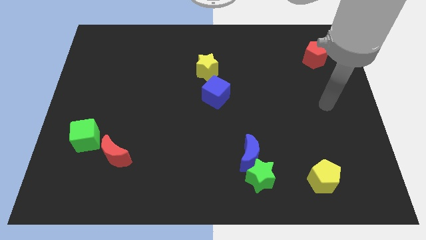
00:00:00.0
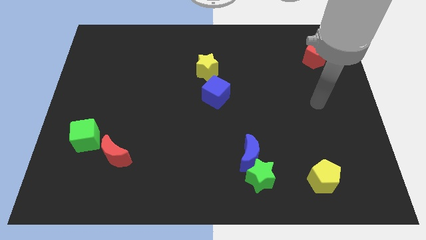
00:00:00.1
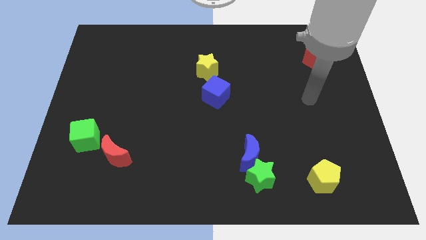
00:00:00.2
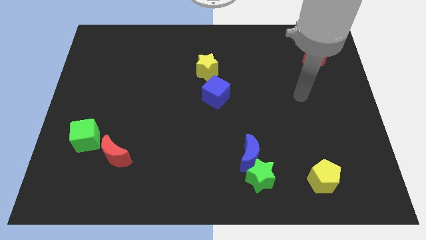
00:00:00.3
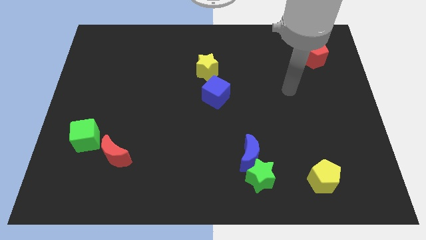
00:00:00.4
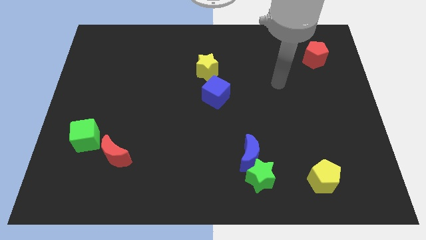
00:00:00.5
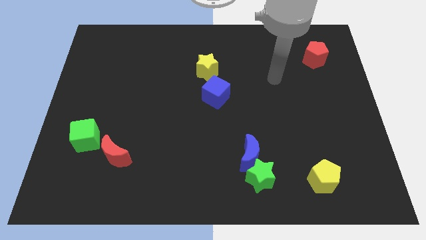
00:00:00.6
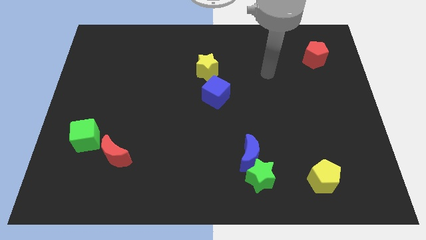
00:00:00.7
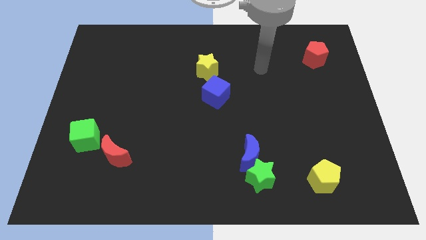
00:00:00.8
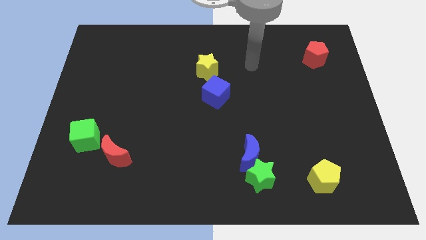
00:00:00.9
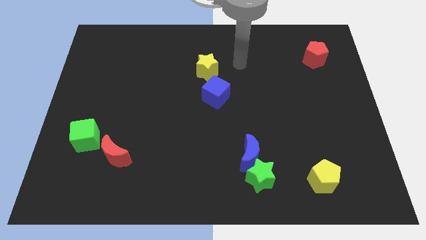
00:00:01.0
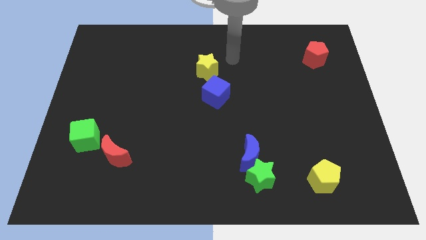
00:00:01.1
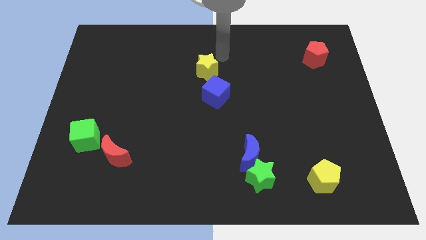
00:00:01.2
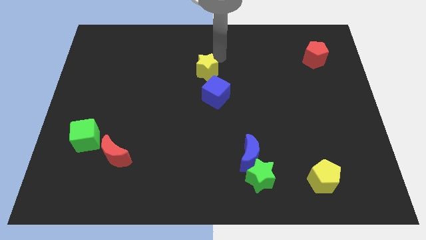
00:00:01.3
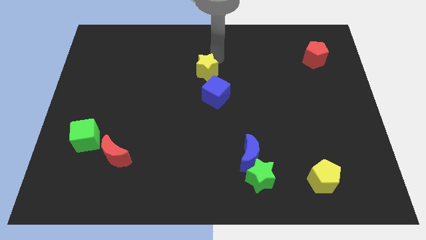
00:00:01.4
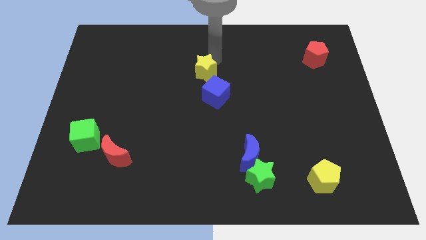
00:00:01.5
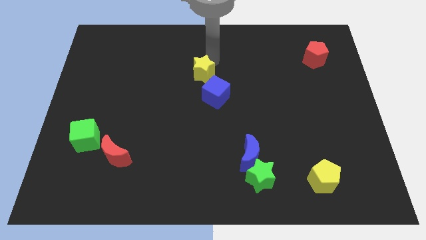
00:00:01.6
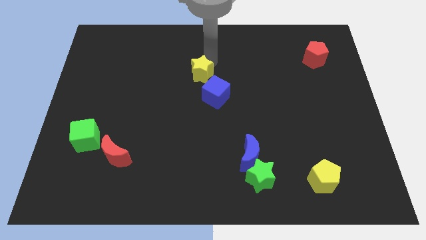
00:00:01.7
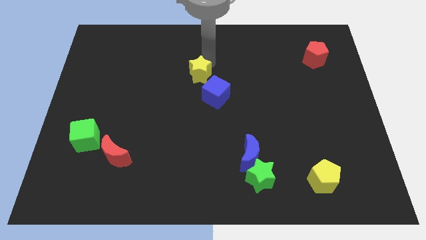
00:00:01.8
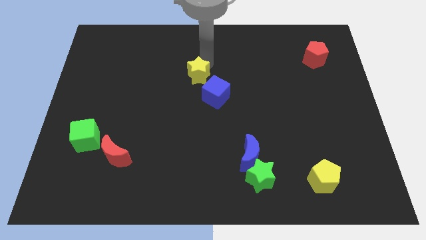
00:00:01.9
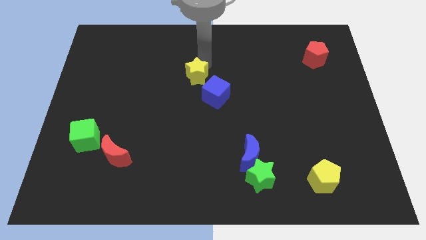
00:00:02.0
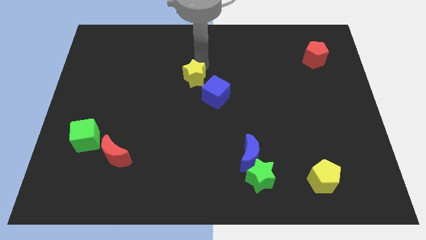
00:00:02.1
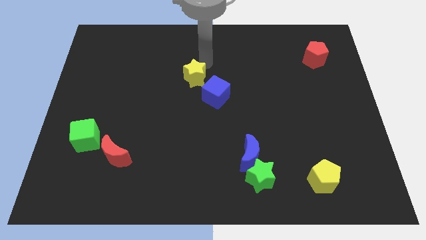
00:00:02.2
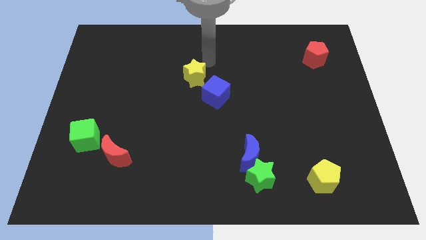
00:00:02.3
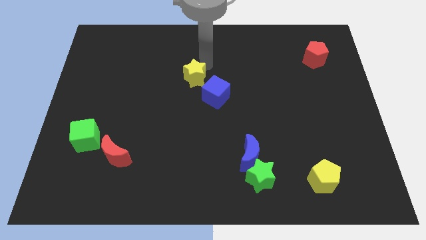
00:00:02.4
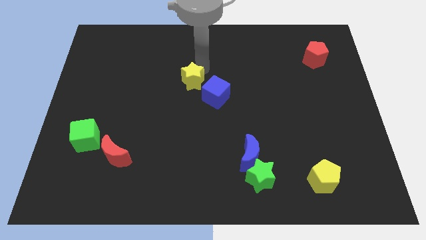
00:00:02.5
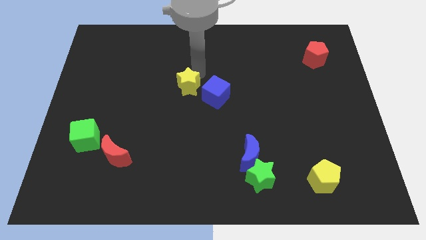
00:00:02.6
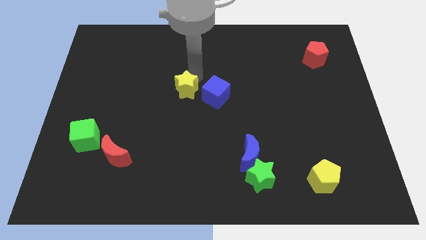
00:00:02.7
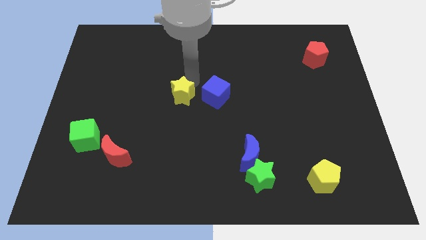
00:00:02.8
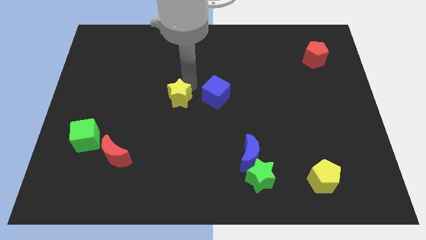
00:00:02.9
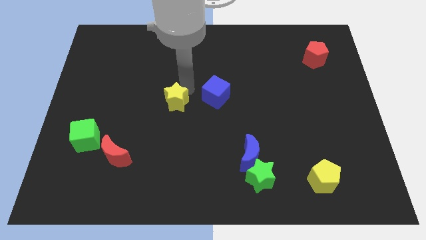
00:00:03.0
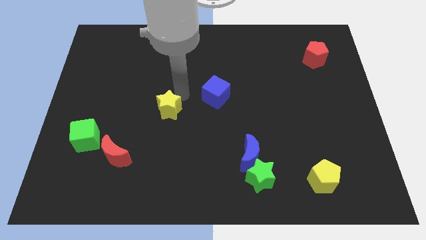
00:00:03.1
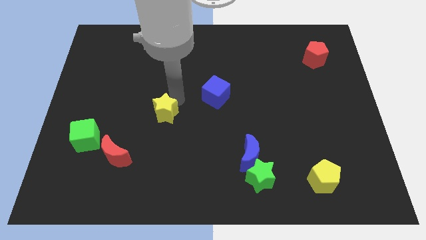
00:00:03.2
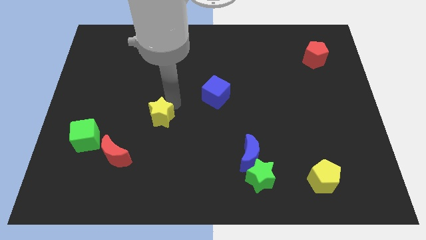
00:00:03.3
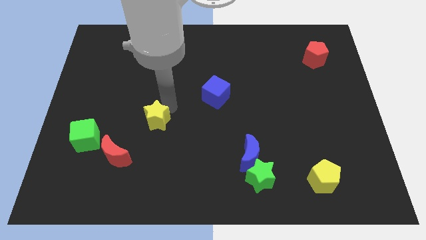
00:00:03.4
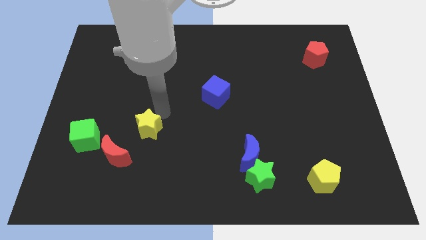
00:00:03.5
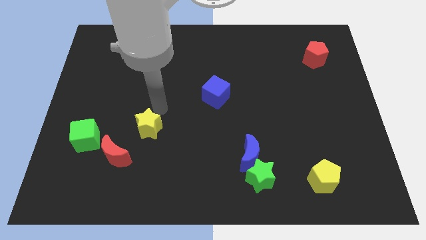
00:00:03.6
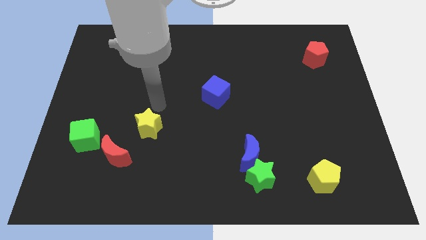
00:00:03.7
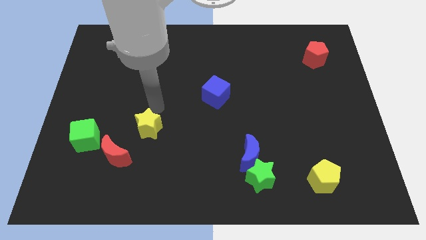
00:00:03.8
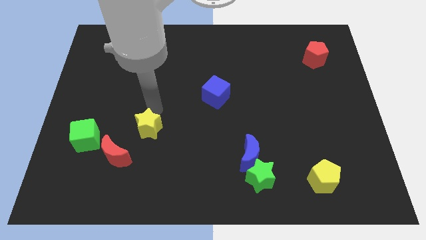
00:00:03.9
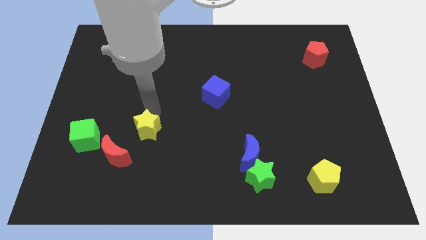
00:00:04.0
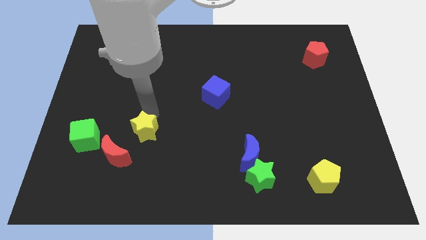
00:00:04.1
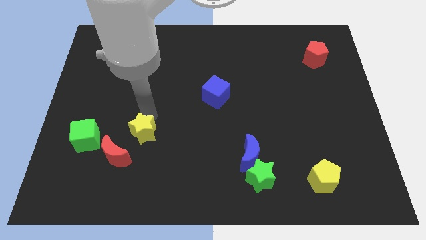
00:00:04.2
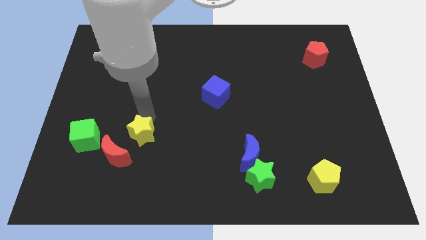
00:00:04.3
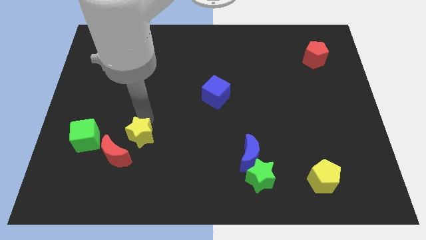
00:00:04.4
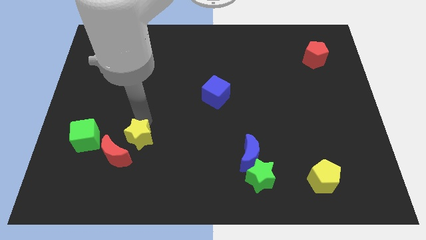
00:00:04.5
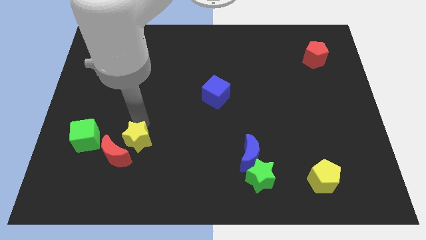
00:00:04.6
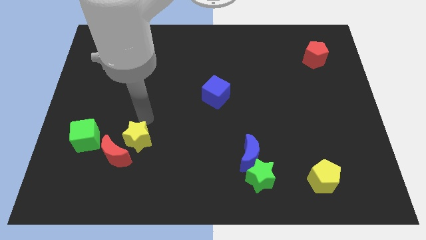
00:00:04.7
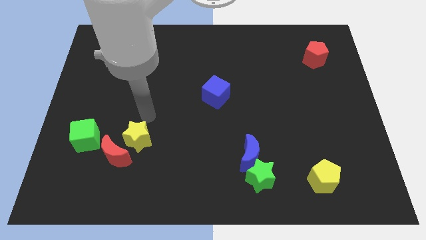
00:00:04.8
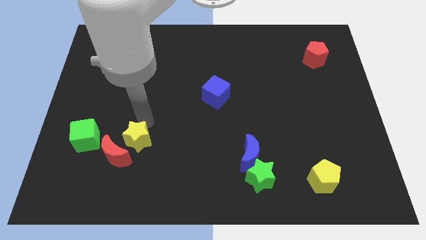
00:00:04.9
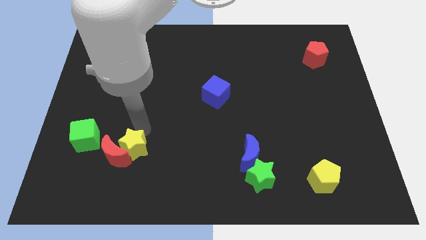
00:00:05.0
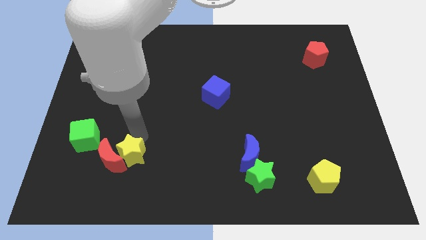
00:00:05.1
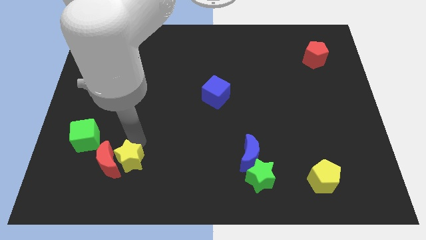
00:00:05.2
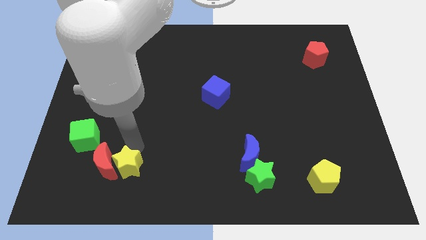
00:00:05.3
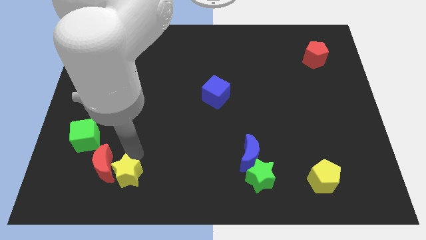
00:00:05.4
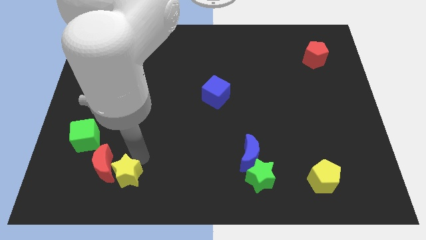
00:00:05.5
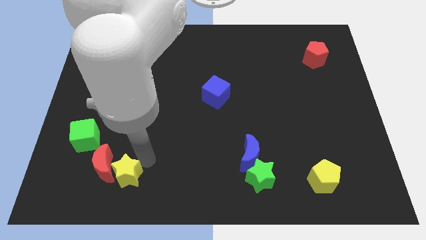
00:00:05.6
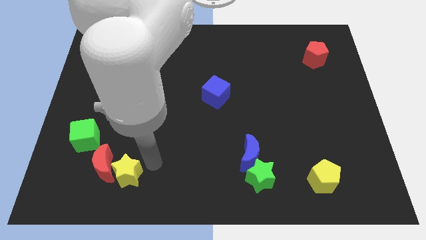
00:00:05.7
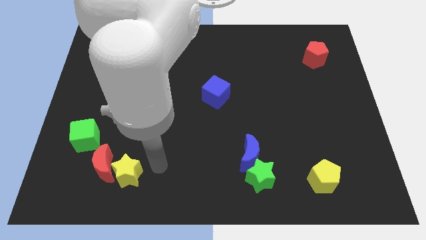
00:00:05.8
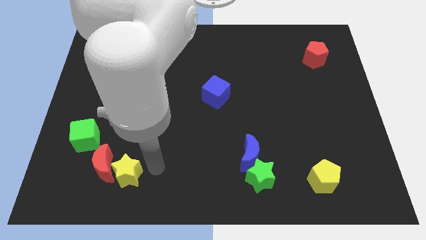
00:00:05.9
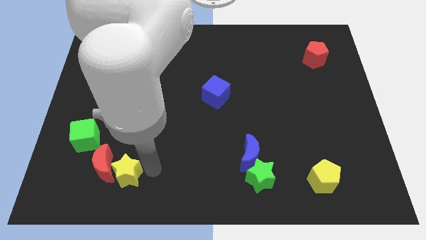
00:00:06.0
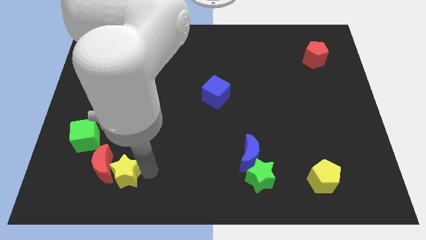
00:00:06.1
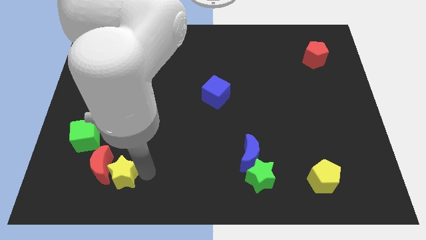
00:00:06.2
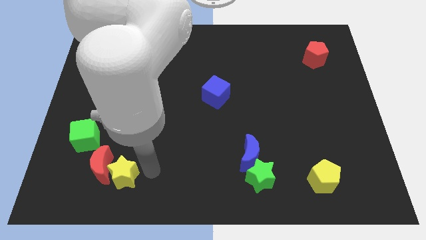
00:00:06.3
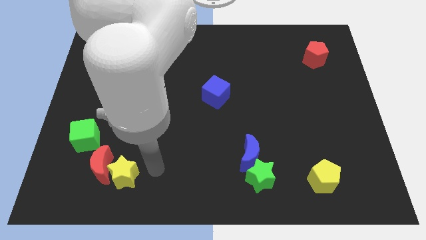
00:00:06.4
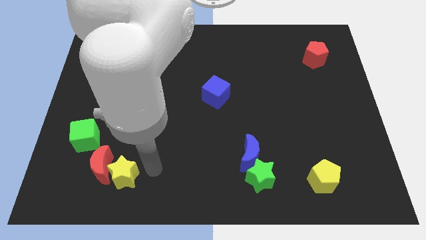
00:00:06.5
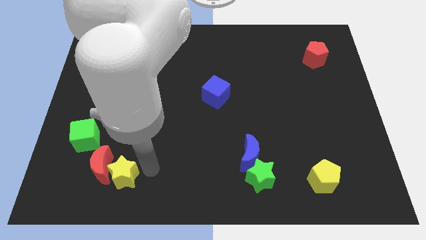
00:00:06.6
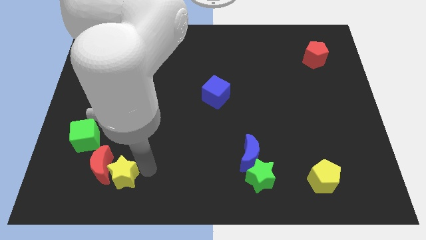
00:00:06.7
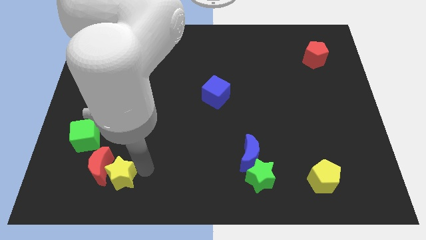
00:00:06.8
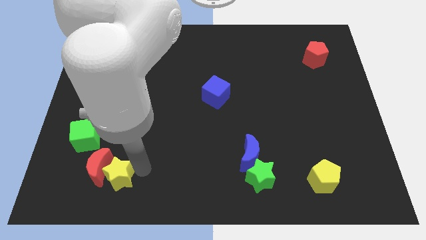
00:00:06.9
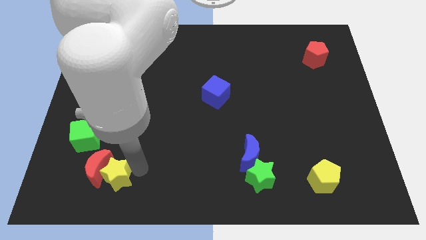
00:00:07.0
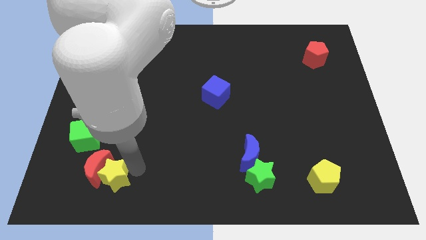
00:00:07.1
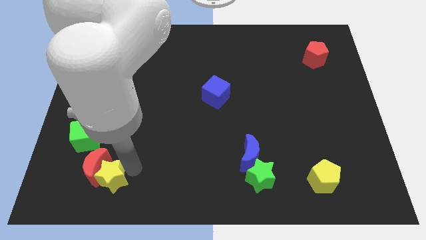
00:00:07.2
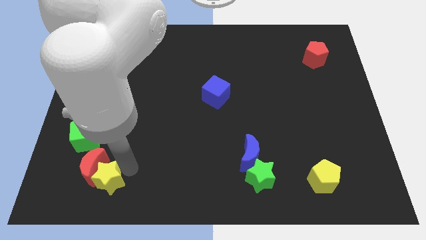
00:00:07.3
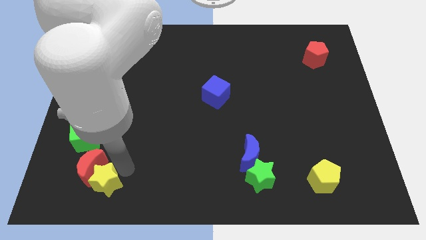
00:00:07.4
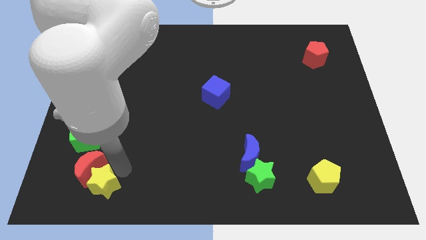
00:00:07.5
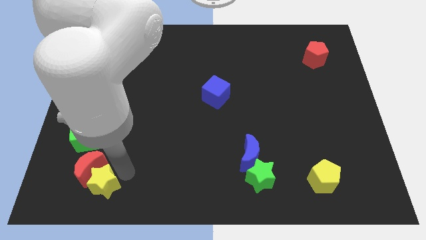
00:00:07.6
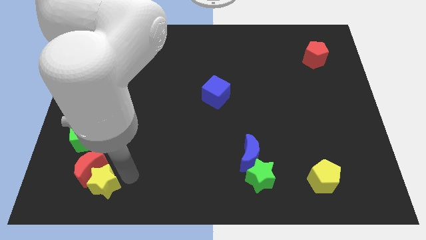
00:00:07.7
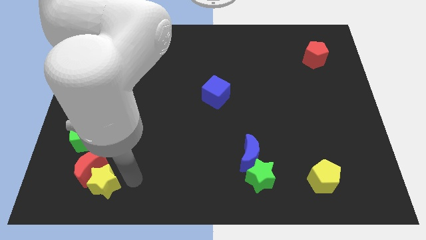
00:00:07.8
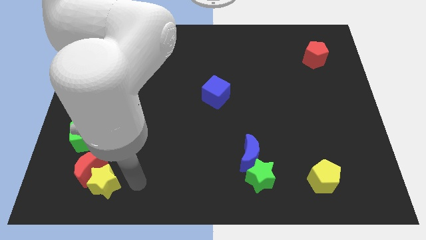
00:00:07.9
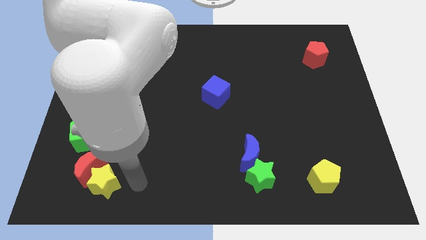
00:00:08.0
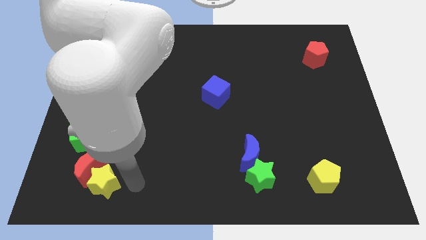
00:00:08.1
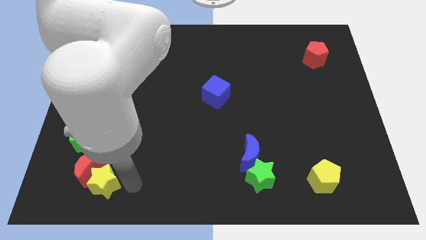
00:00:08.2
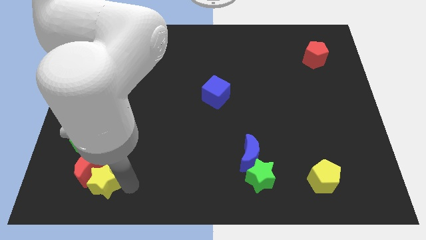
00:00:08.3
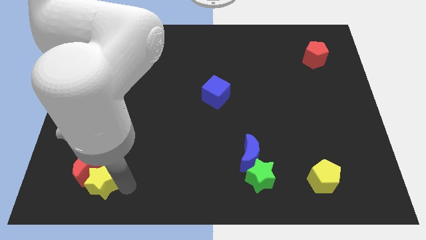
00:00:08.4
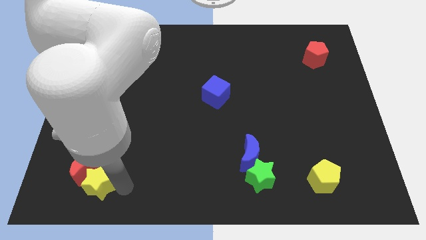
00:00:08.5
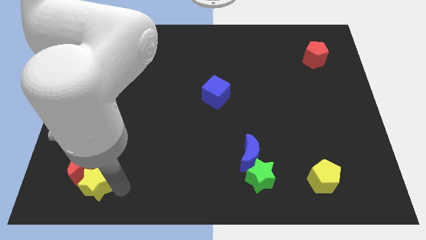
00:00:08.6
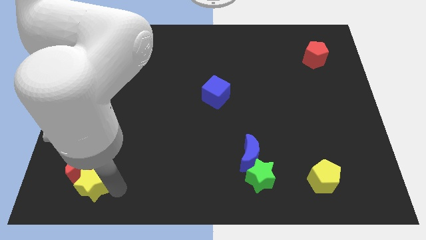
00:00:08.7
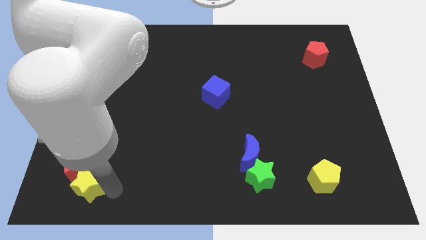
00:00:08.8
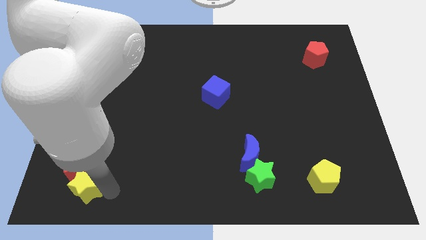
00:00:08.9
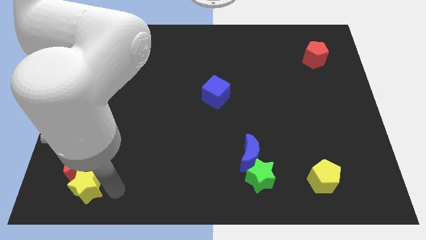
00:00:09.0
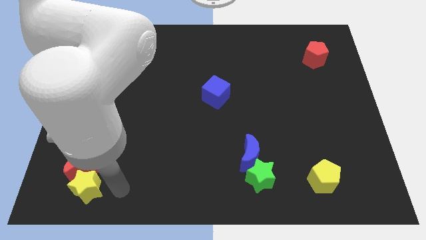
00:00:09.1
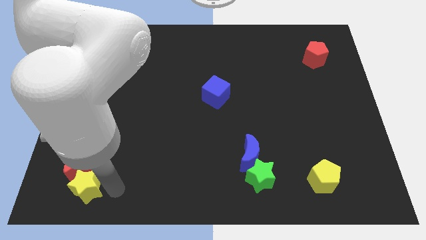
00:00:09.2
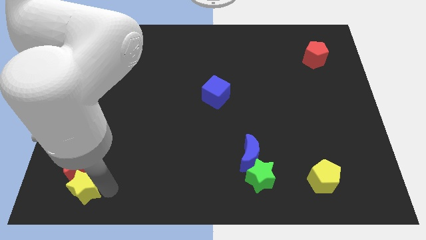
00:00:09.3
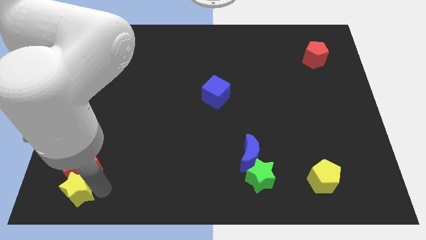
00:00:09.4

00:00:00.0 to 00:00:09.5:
push the yellow star to the bottom left
